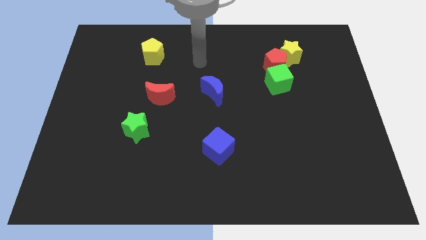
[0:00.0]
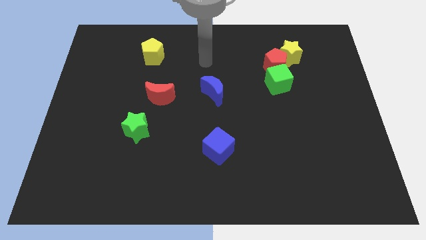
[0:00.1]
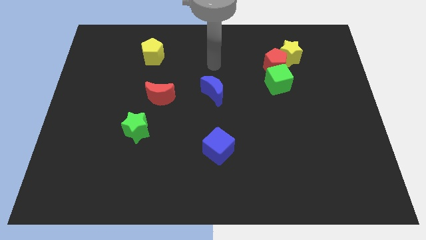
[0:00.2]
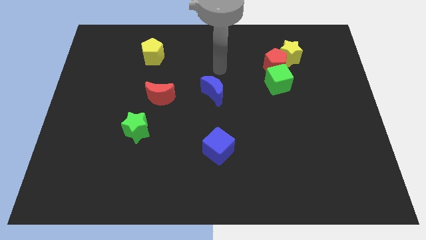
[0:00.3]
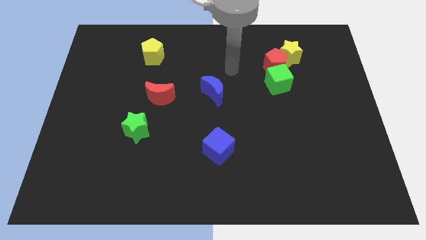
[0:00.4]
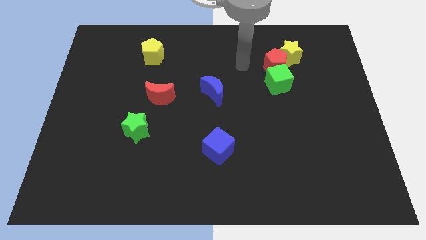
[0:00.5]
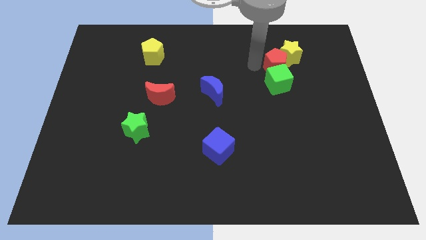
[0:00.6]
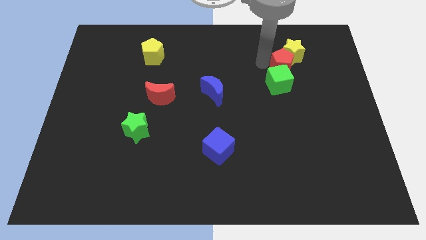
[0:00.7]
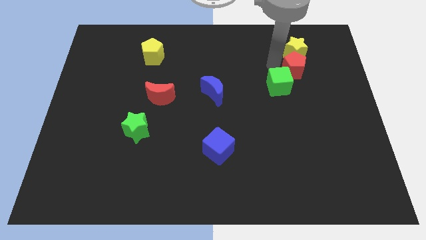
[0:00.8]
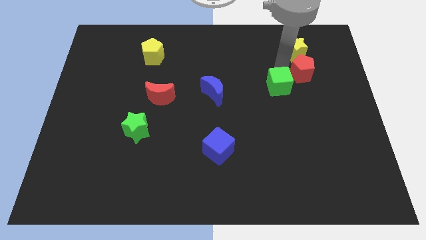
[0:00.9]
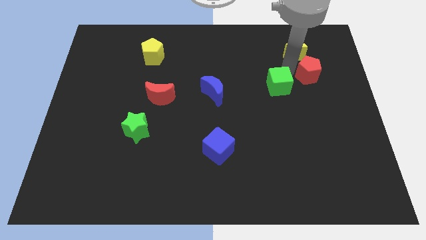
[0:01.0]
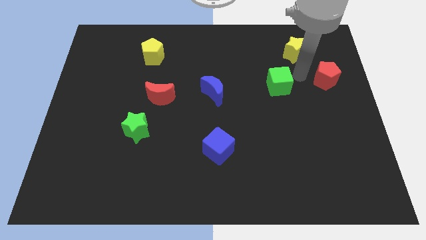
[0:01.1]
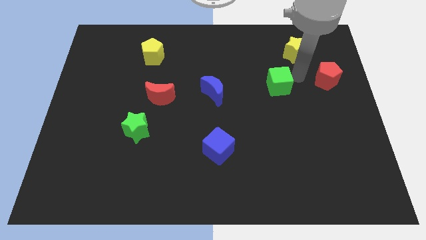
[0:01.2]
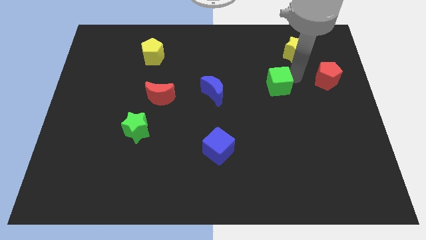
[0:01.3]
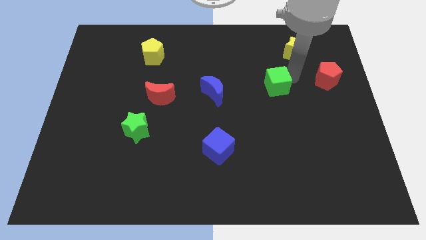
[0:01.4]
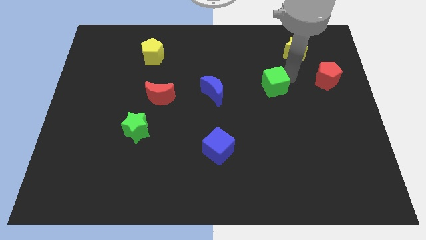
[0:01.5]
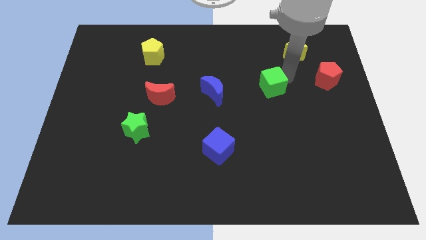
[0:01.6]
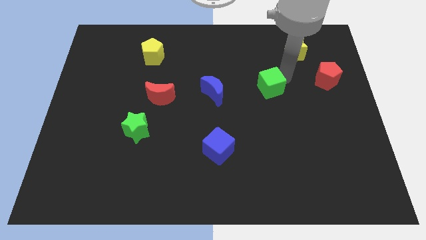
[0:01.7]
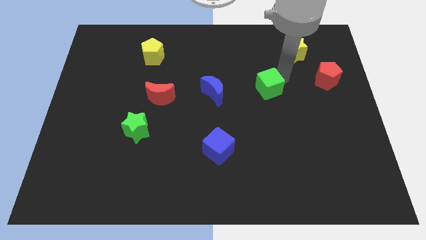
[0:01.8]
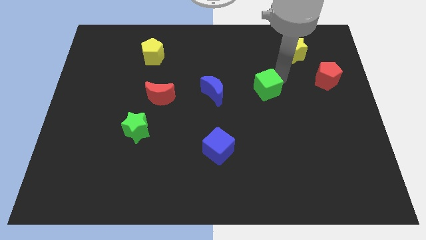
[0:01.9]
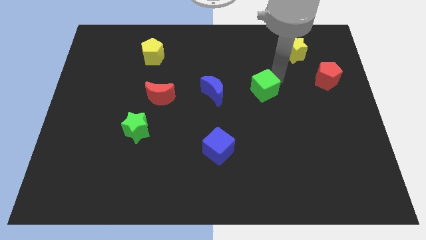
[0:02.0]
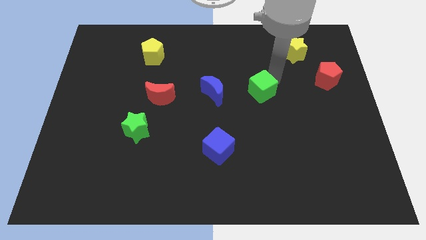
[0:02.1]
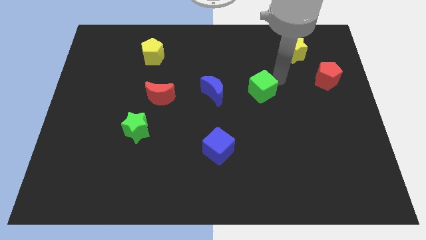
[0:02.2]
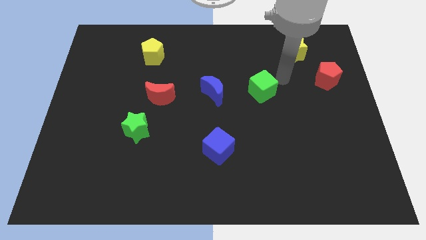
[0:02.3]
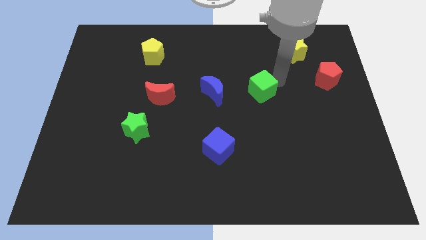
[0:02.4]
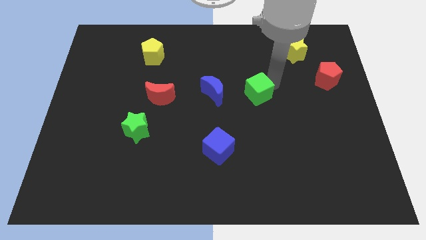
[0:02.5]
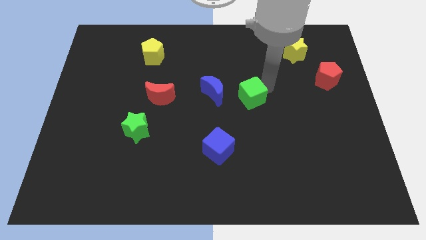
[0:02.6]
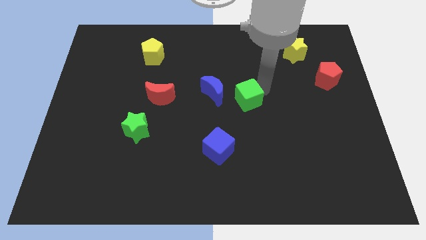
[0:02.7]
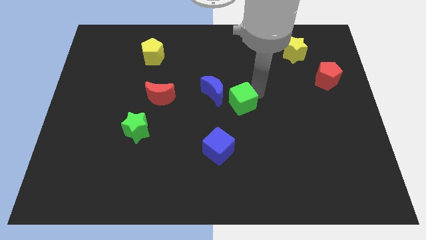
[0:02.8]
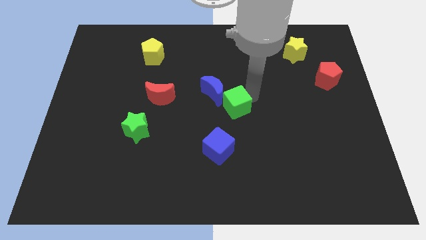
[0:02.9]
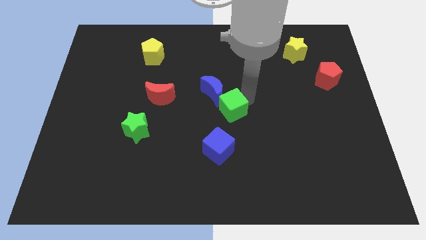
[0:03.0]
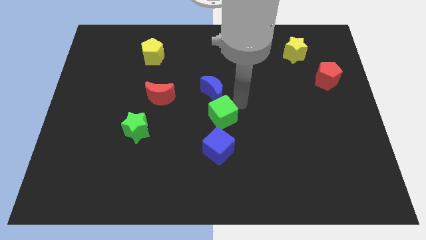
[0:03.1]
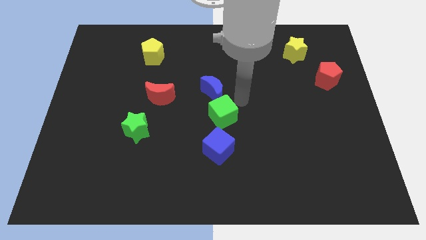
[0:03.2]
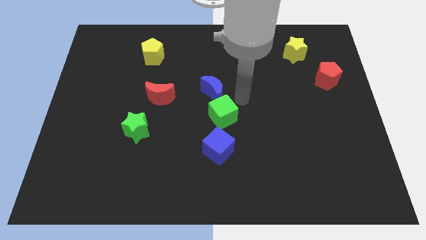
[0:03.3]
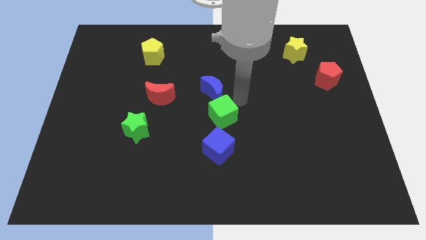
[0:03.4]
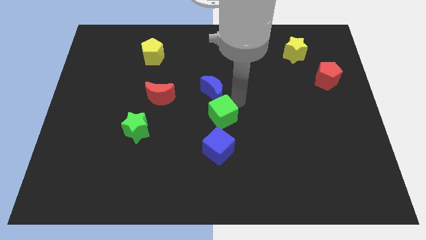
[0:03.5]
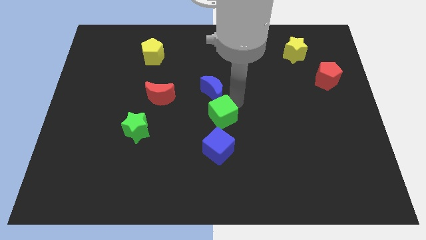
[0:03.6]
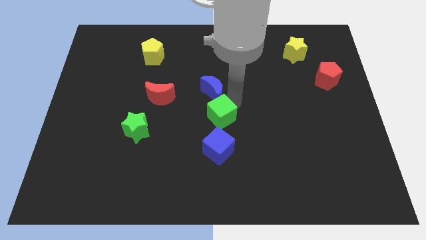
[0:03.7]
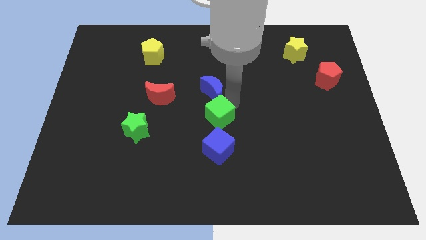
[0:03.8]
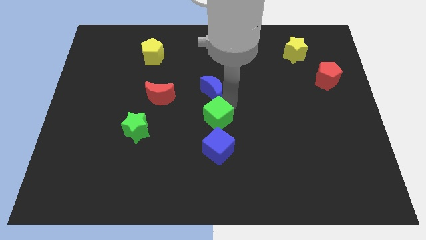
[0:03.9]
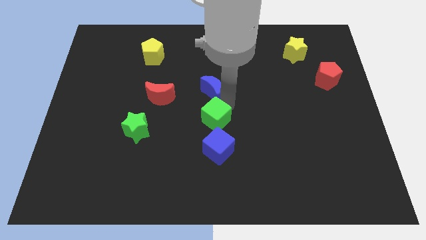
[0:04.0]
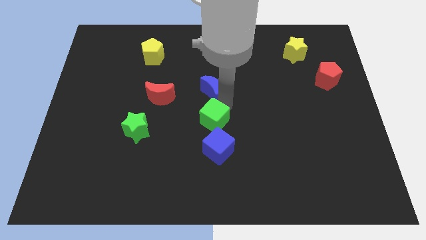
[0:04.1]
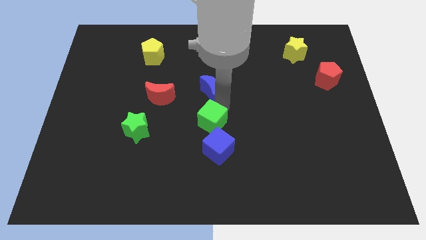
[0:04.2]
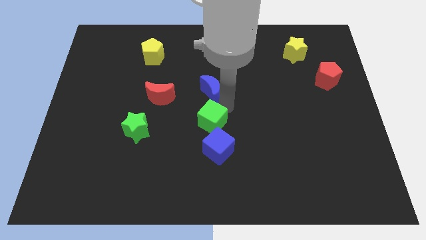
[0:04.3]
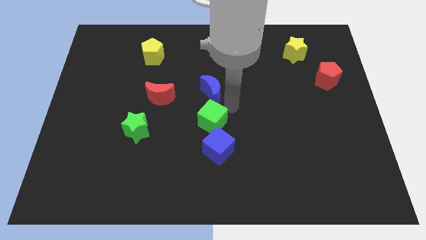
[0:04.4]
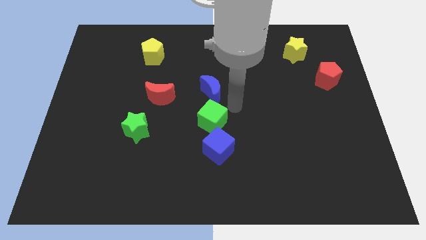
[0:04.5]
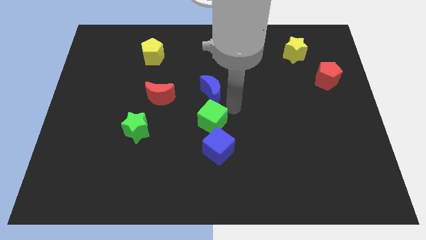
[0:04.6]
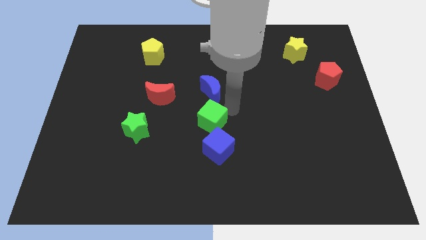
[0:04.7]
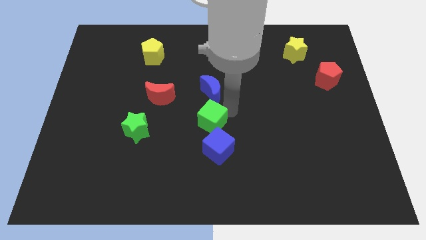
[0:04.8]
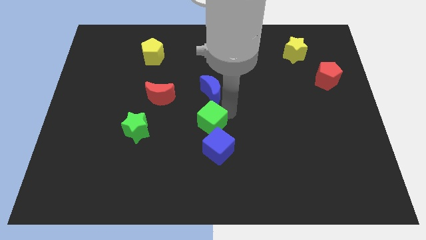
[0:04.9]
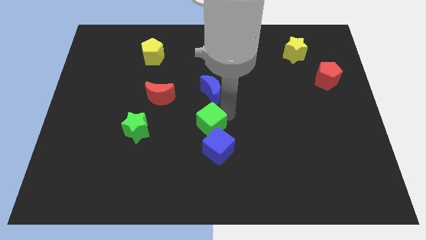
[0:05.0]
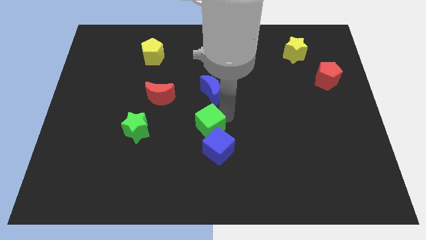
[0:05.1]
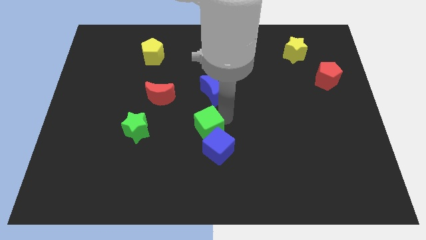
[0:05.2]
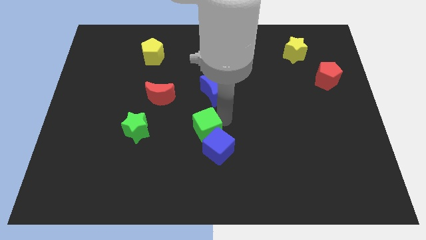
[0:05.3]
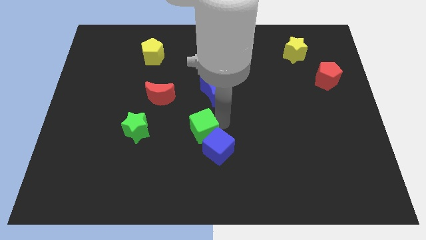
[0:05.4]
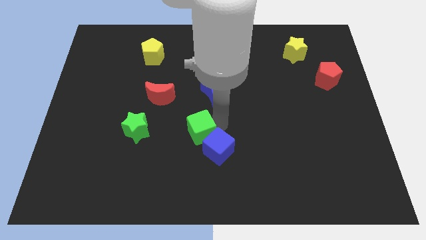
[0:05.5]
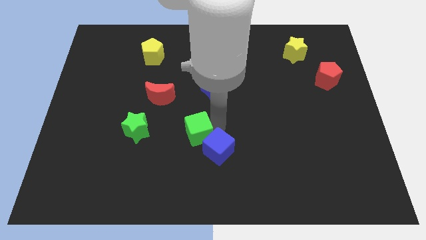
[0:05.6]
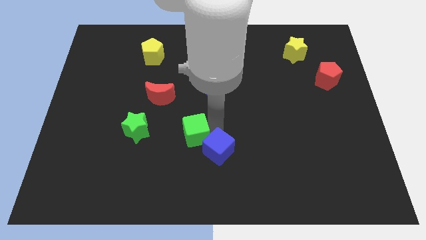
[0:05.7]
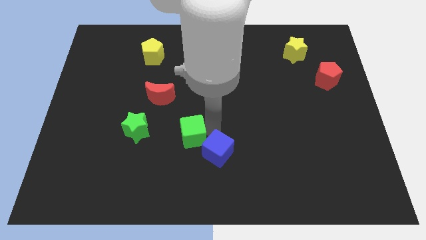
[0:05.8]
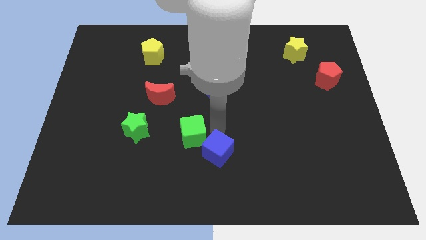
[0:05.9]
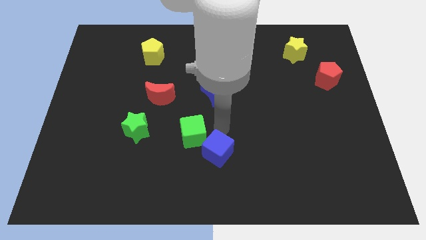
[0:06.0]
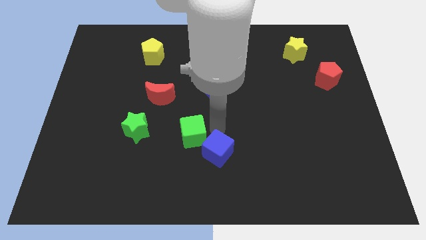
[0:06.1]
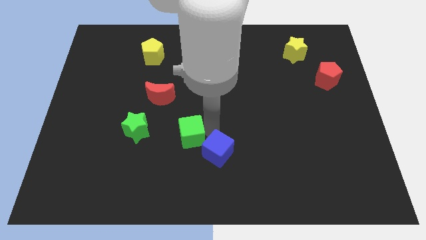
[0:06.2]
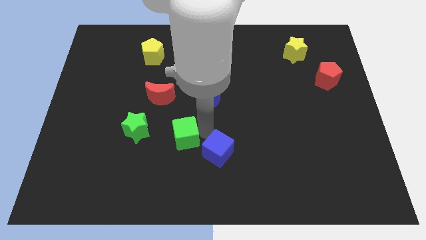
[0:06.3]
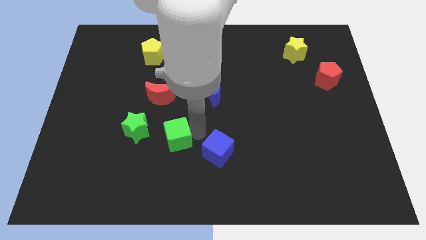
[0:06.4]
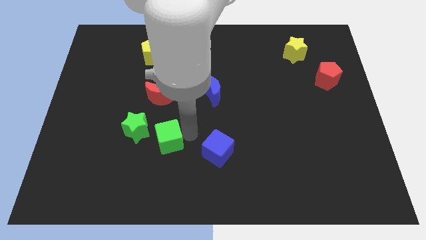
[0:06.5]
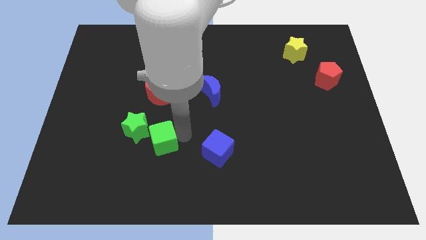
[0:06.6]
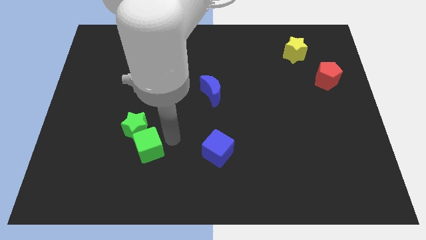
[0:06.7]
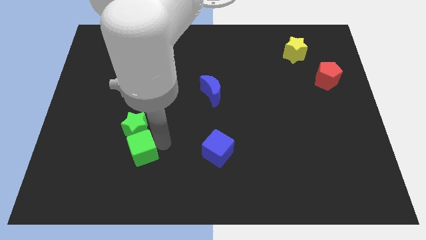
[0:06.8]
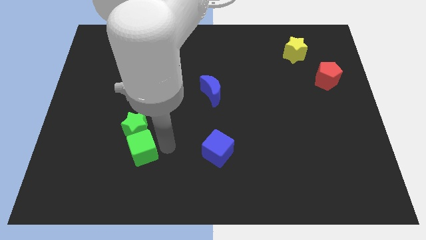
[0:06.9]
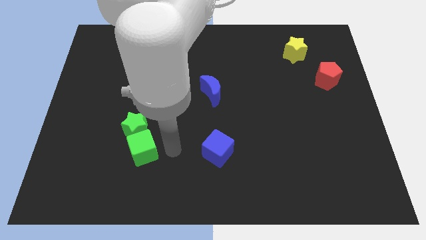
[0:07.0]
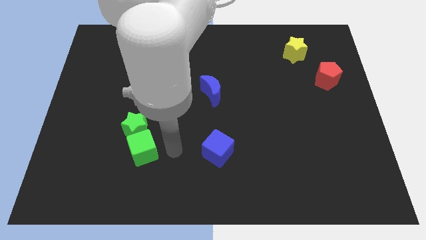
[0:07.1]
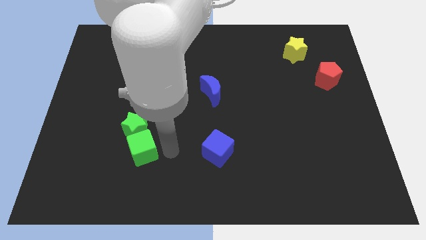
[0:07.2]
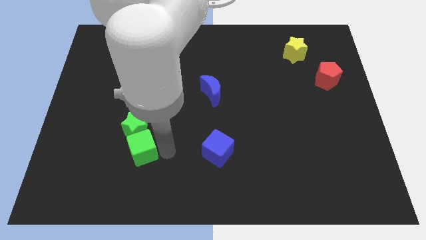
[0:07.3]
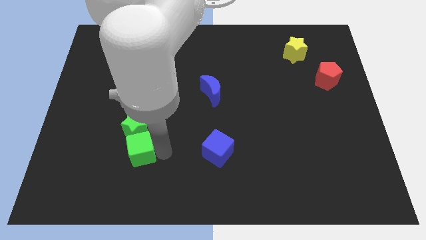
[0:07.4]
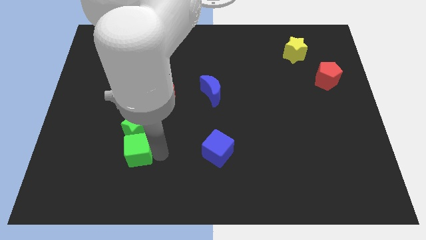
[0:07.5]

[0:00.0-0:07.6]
slide the green cube to the bottom left of the green star
